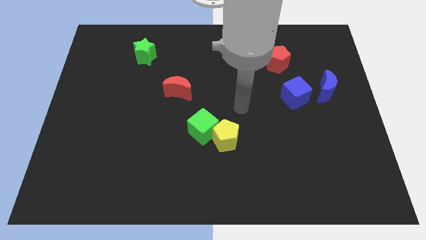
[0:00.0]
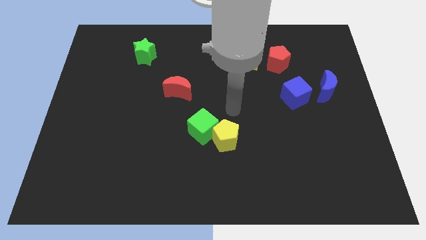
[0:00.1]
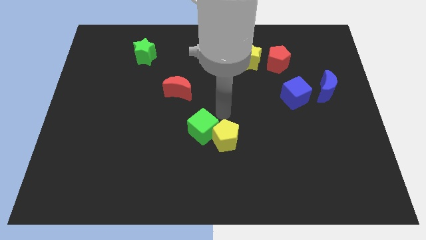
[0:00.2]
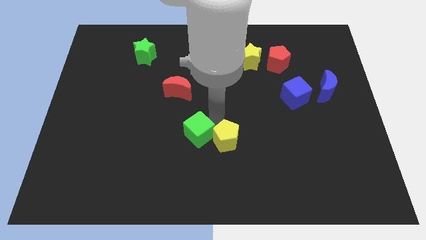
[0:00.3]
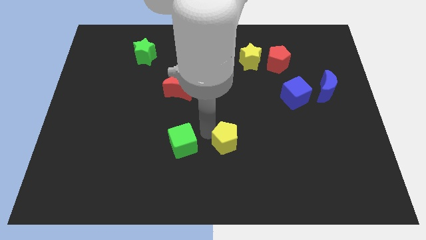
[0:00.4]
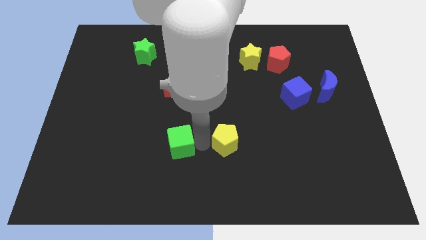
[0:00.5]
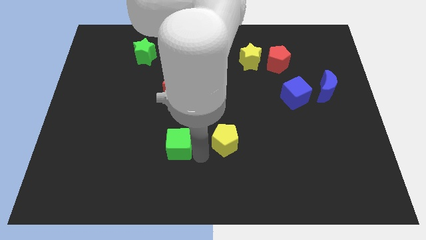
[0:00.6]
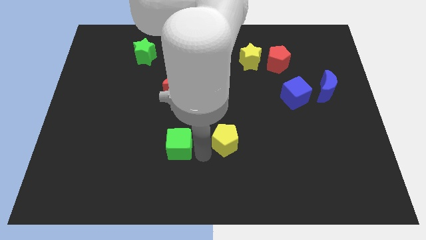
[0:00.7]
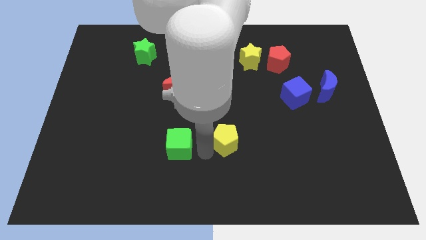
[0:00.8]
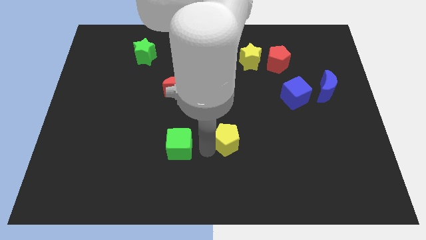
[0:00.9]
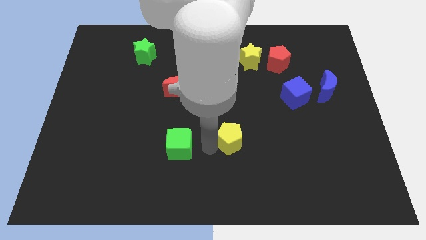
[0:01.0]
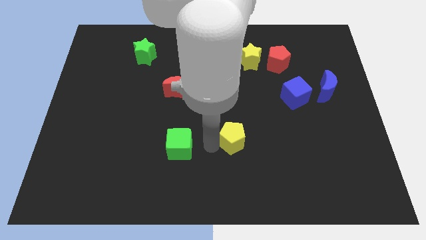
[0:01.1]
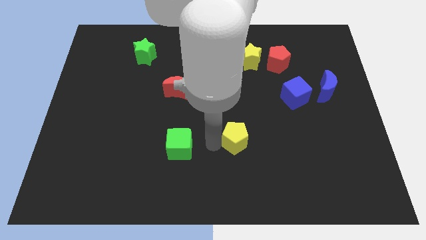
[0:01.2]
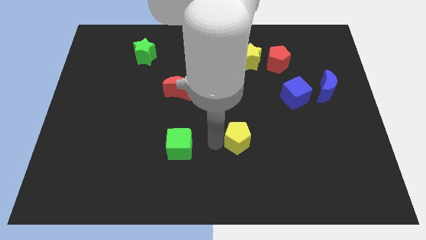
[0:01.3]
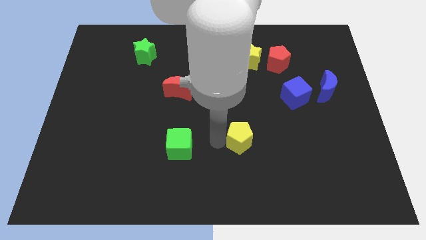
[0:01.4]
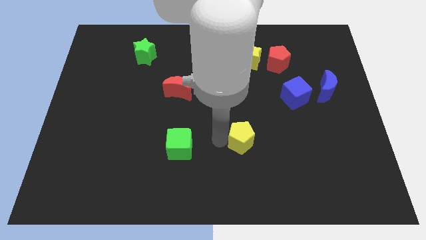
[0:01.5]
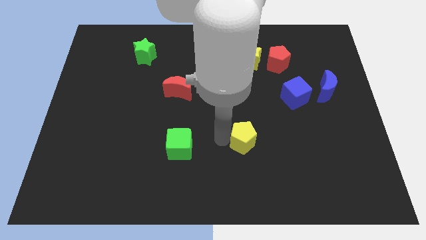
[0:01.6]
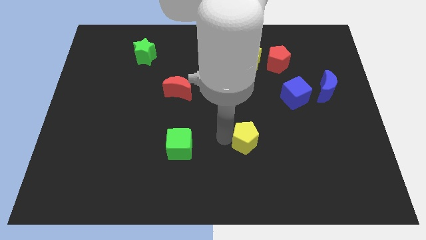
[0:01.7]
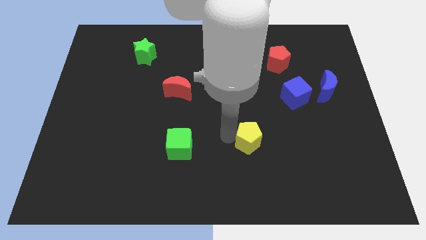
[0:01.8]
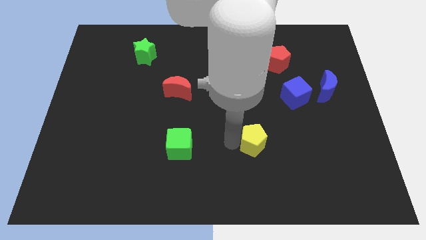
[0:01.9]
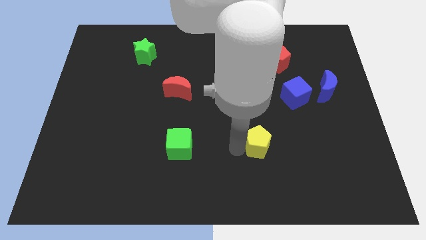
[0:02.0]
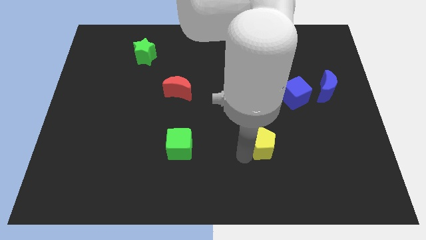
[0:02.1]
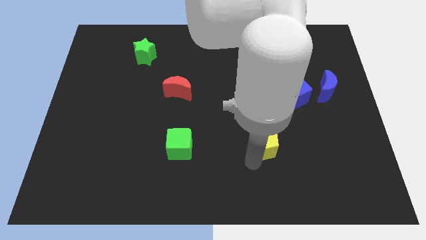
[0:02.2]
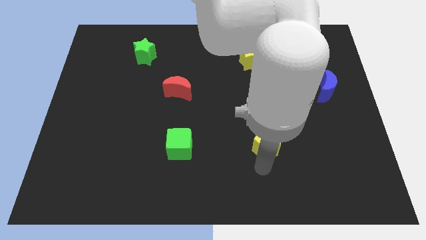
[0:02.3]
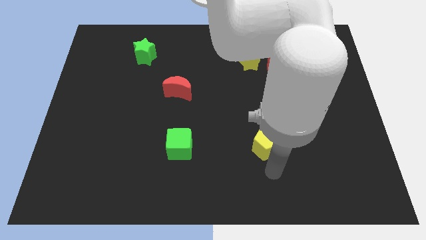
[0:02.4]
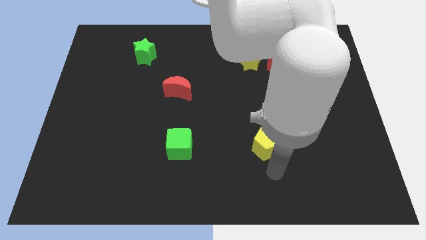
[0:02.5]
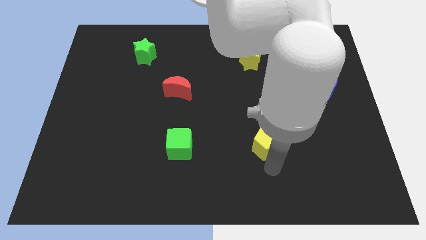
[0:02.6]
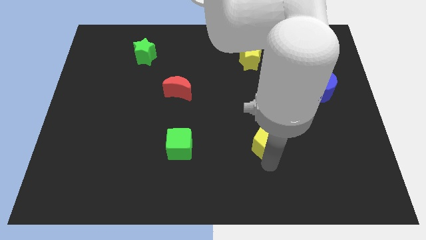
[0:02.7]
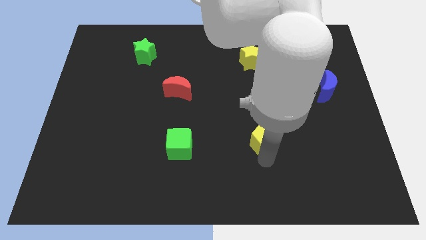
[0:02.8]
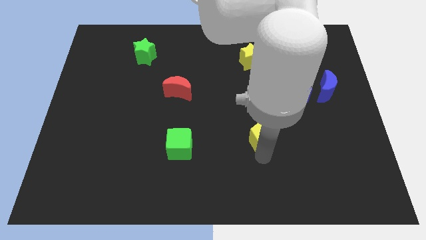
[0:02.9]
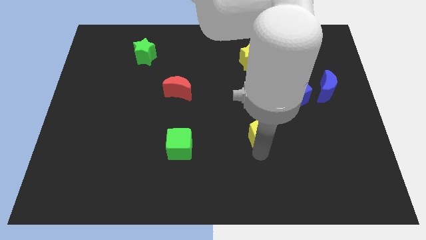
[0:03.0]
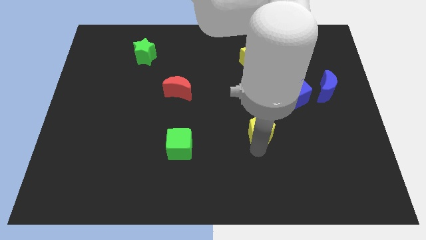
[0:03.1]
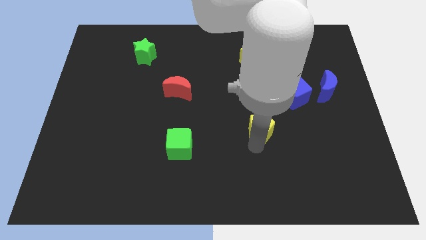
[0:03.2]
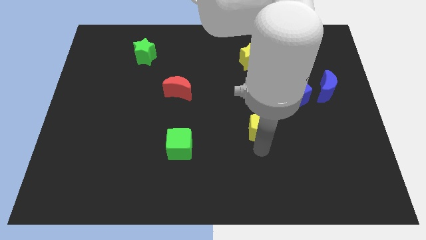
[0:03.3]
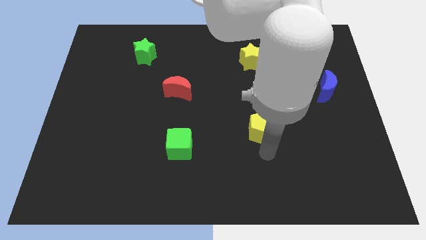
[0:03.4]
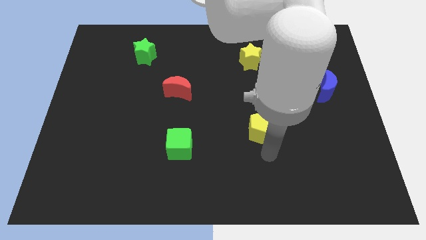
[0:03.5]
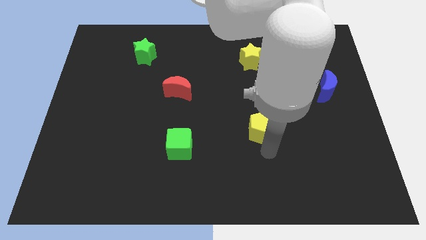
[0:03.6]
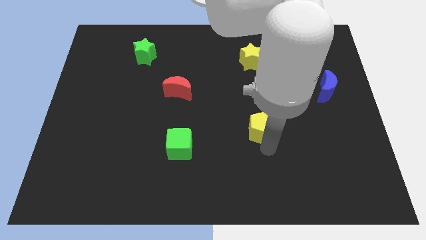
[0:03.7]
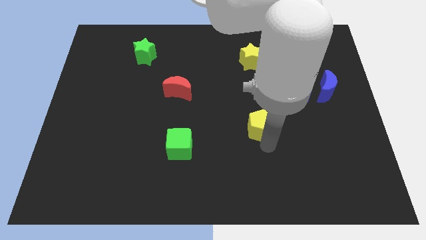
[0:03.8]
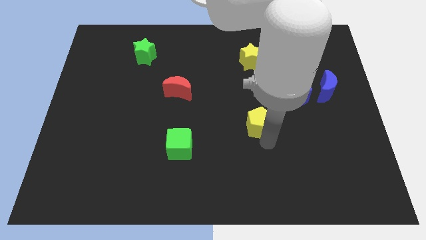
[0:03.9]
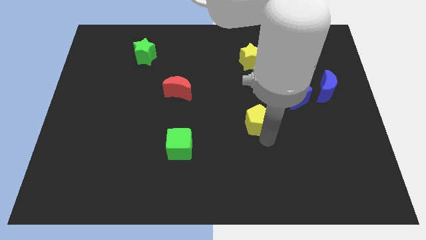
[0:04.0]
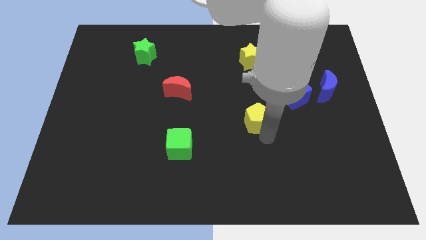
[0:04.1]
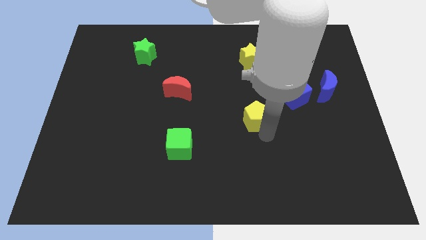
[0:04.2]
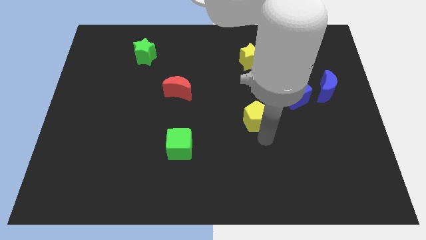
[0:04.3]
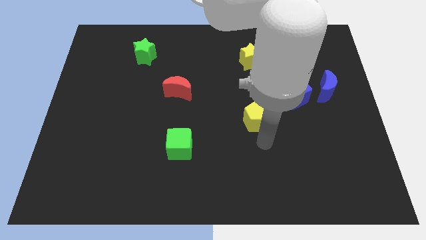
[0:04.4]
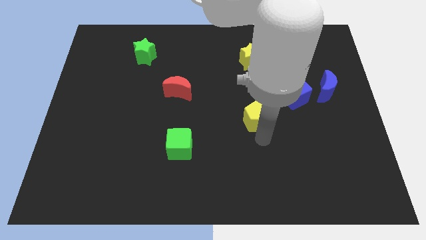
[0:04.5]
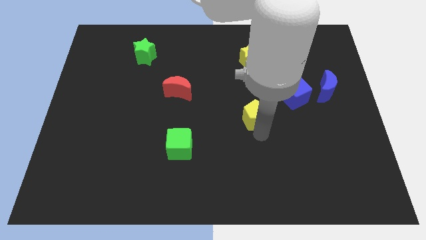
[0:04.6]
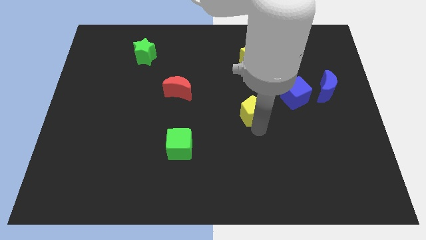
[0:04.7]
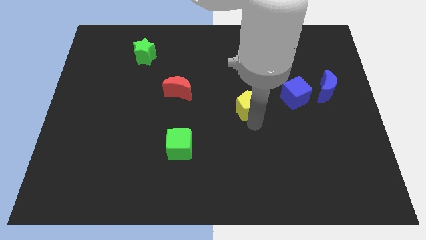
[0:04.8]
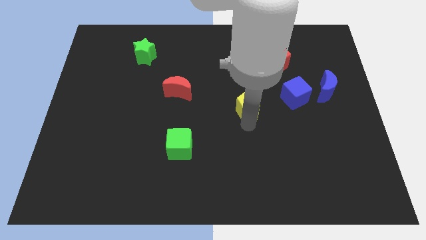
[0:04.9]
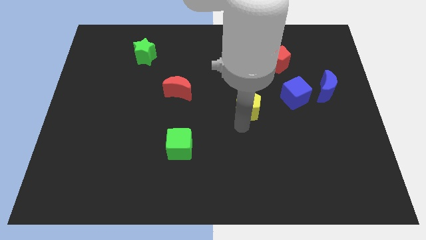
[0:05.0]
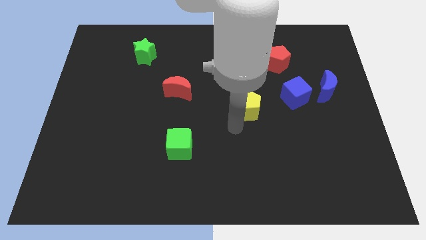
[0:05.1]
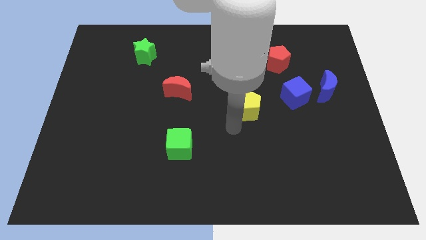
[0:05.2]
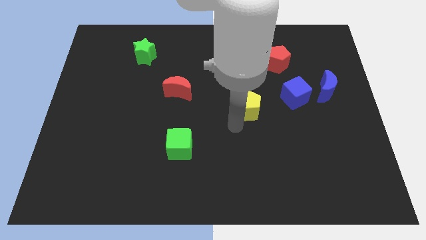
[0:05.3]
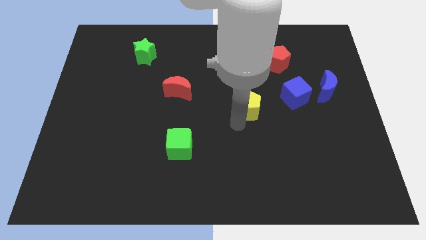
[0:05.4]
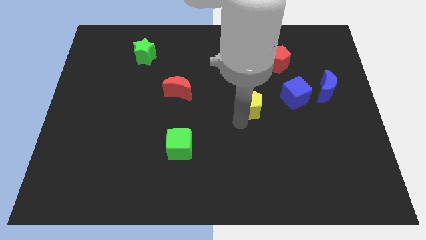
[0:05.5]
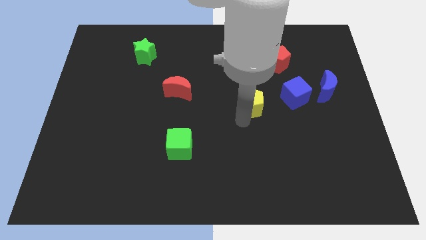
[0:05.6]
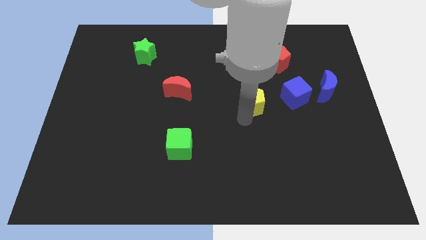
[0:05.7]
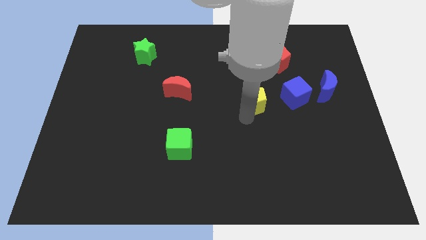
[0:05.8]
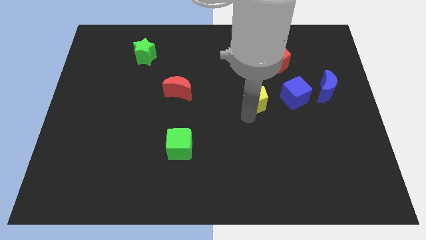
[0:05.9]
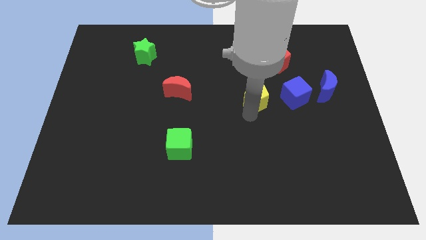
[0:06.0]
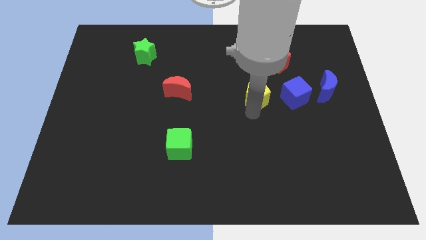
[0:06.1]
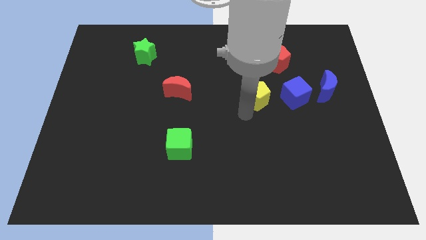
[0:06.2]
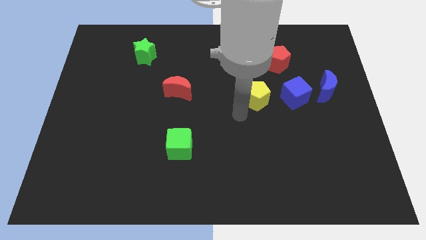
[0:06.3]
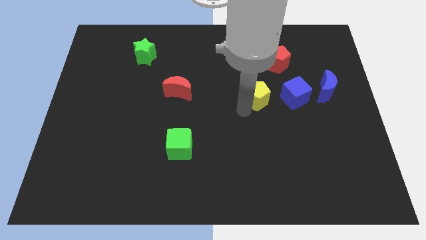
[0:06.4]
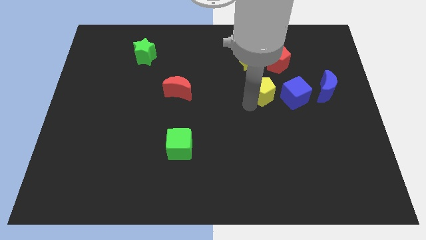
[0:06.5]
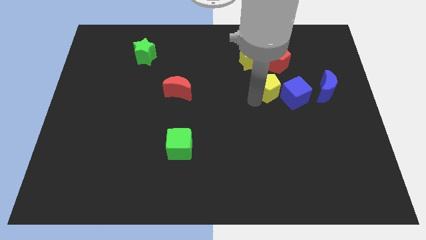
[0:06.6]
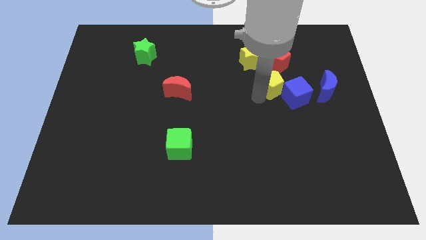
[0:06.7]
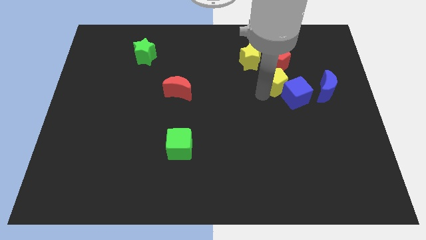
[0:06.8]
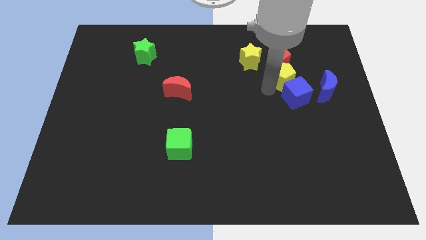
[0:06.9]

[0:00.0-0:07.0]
slide the yellow pentagon to the top of the blue cube

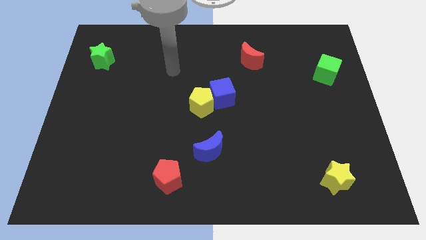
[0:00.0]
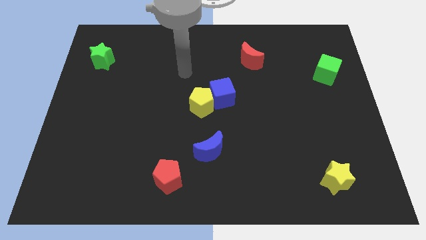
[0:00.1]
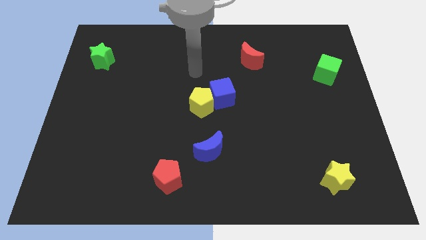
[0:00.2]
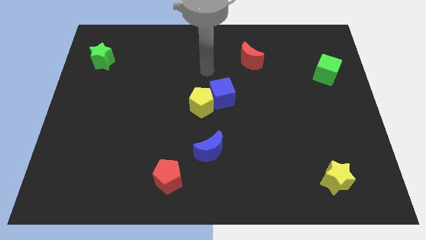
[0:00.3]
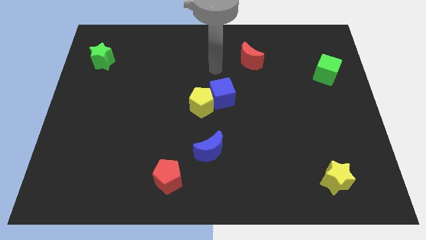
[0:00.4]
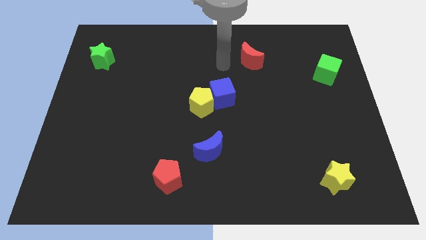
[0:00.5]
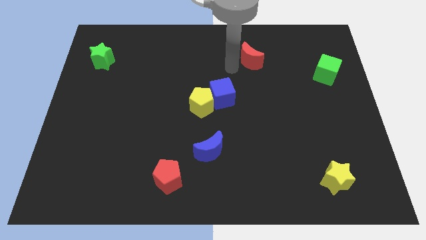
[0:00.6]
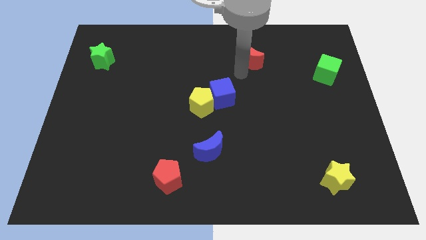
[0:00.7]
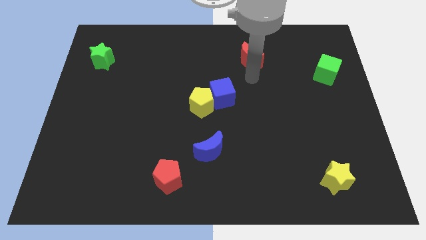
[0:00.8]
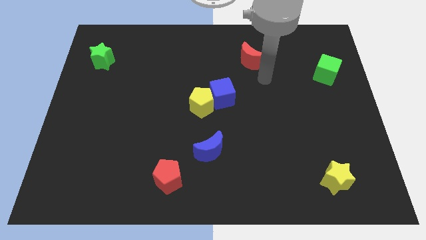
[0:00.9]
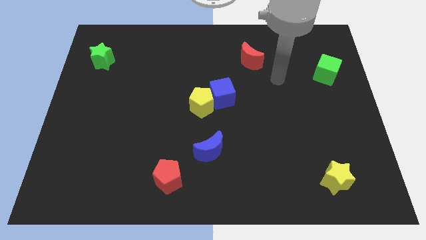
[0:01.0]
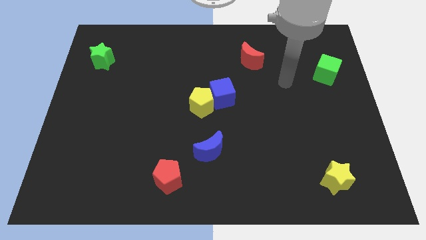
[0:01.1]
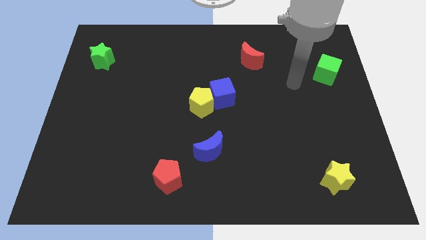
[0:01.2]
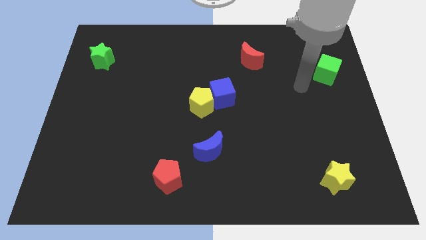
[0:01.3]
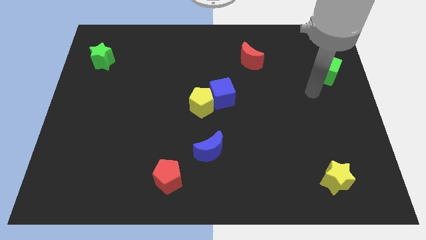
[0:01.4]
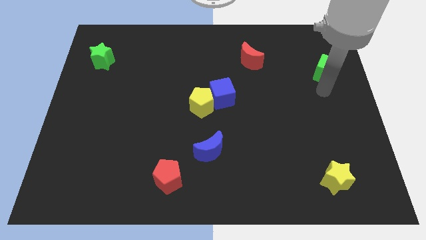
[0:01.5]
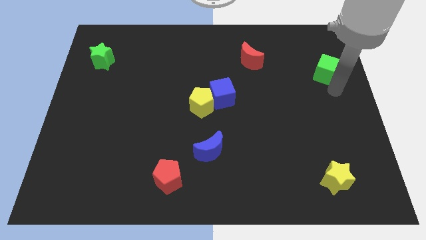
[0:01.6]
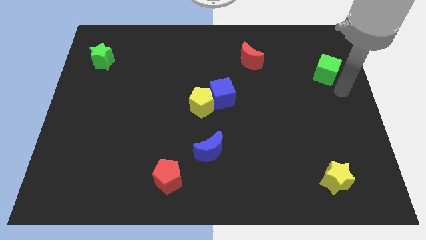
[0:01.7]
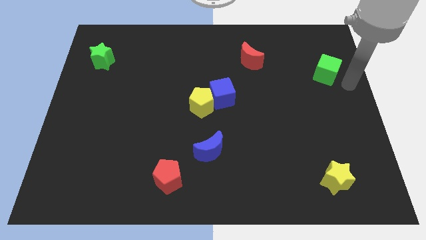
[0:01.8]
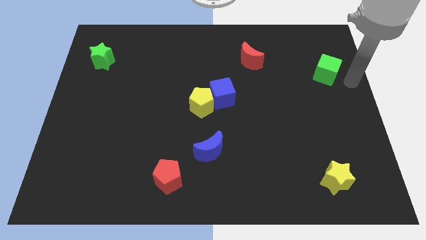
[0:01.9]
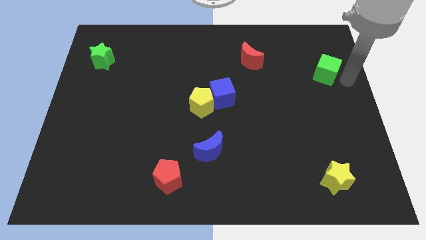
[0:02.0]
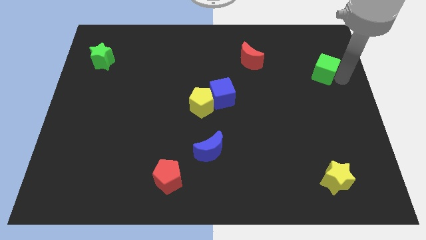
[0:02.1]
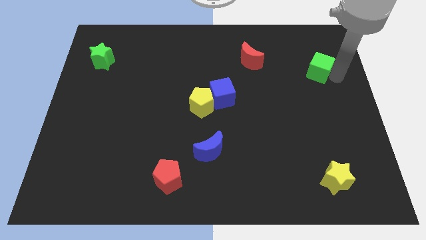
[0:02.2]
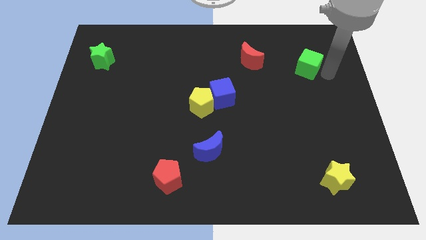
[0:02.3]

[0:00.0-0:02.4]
push the green cube just right of the red moon
